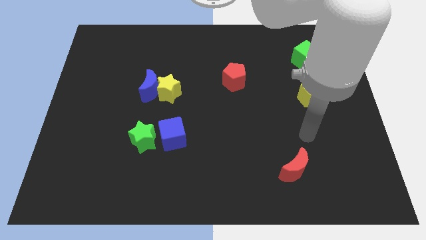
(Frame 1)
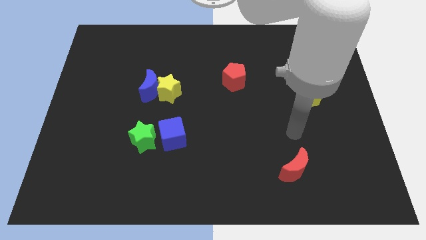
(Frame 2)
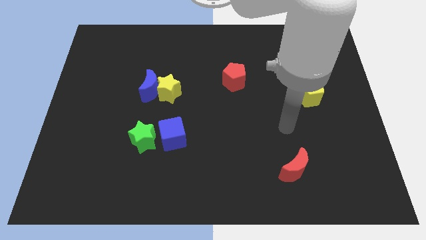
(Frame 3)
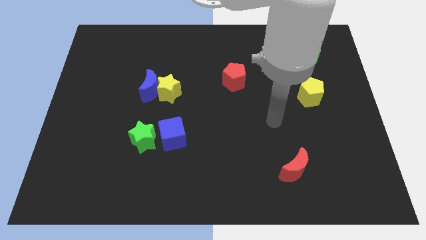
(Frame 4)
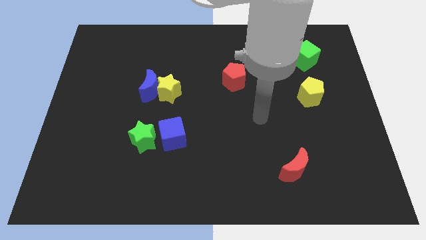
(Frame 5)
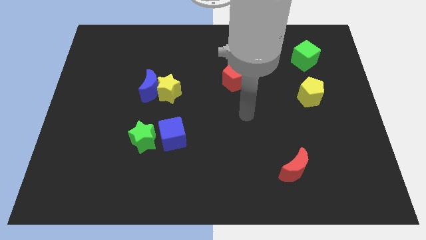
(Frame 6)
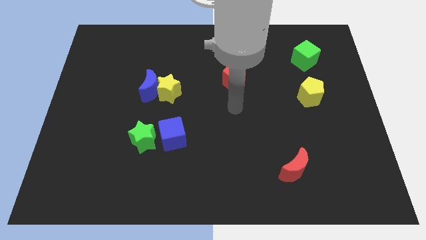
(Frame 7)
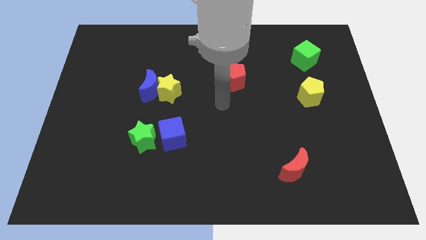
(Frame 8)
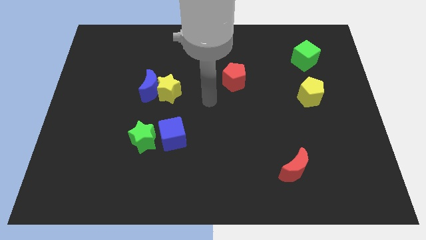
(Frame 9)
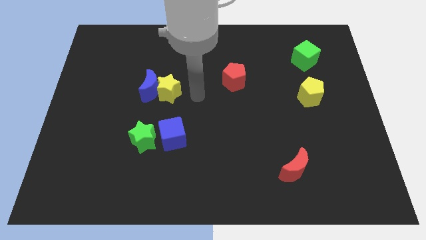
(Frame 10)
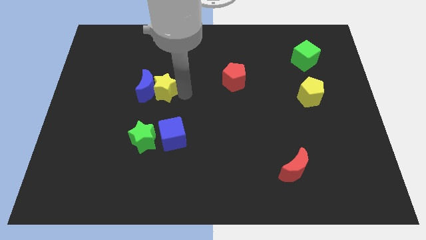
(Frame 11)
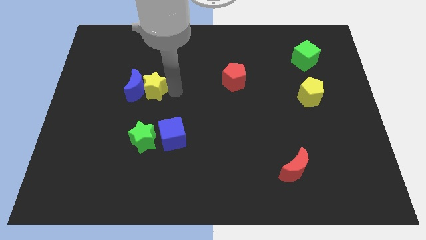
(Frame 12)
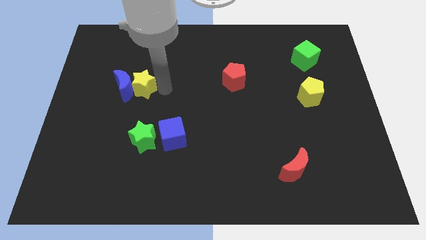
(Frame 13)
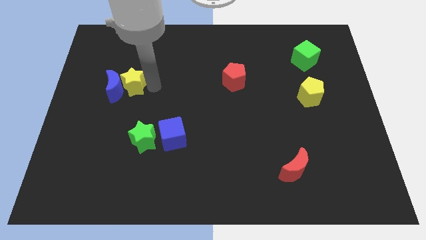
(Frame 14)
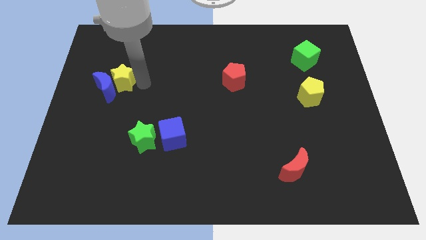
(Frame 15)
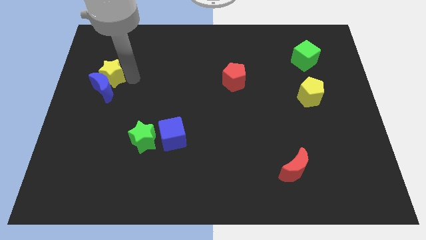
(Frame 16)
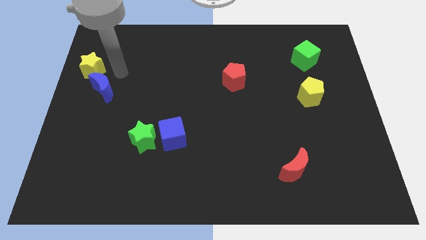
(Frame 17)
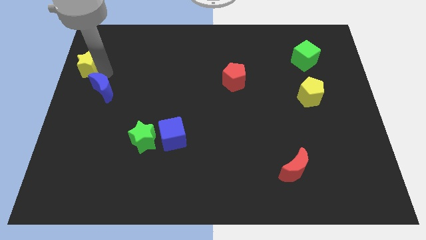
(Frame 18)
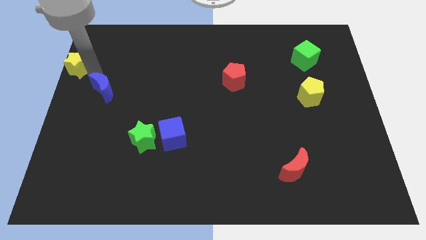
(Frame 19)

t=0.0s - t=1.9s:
separate the blue moon from the yellow star

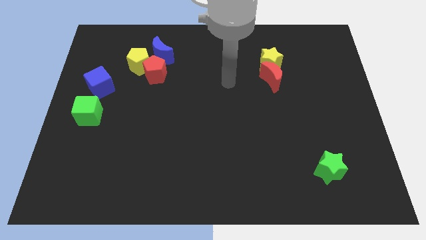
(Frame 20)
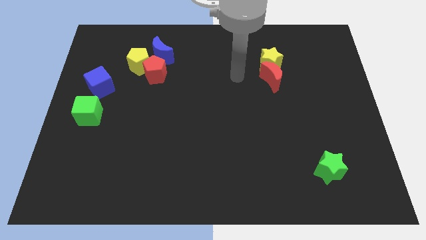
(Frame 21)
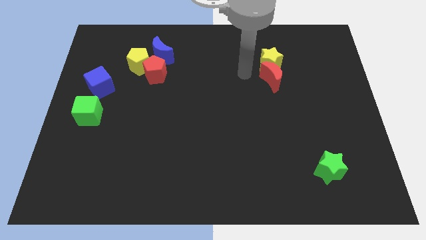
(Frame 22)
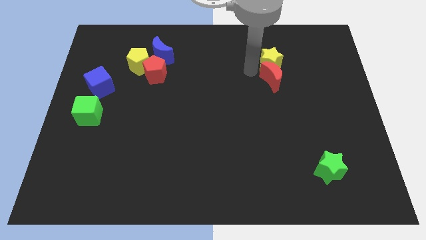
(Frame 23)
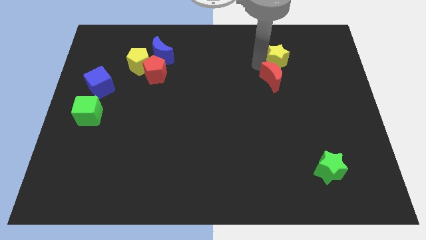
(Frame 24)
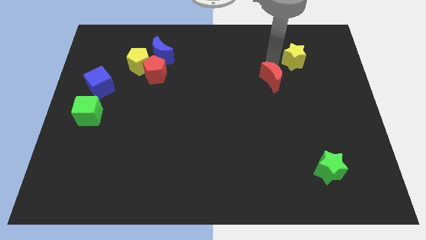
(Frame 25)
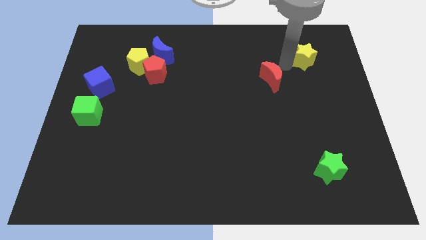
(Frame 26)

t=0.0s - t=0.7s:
separate the red moon from the yellow star

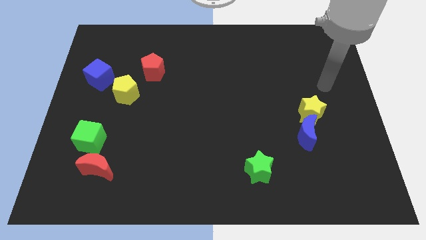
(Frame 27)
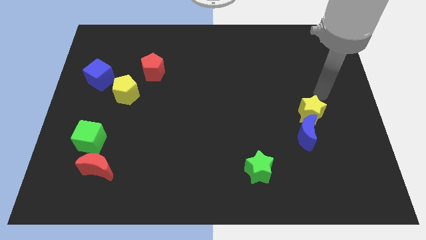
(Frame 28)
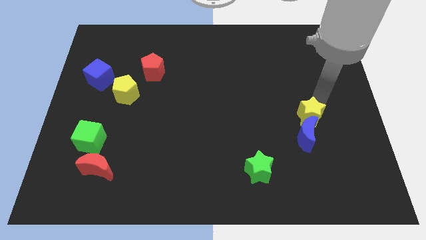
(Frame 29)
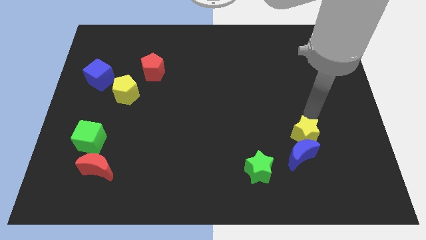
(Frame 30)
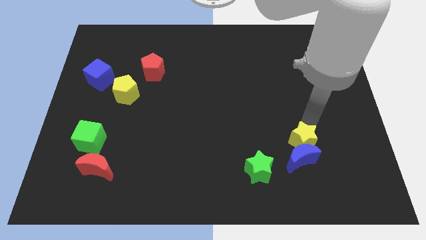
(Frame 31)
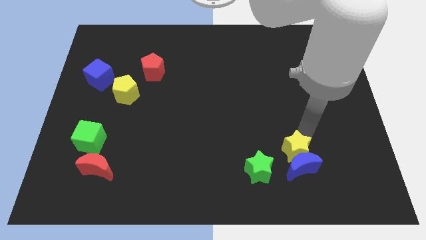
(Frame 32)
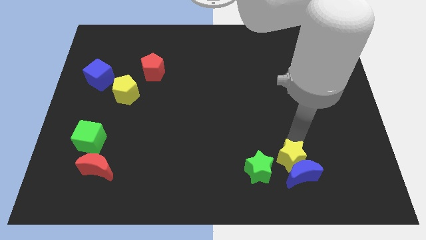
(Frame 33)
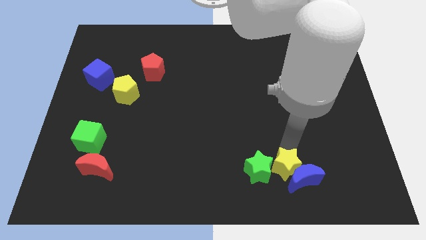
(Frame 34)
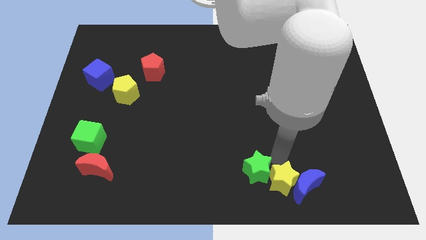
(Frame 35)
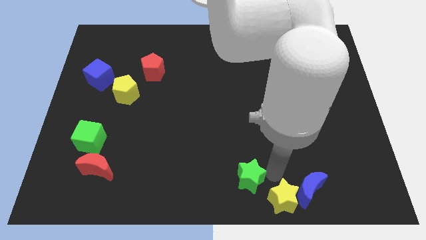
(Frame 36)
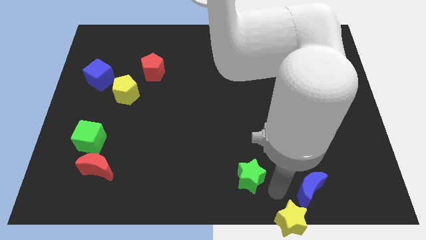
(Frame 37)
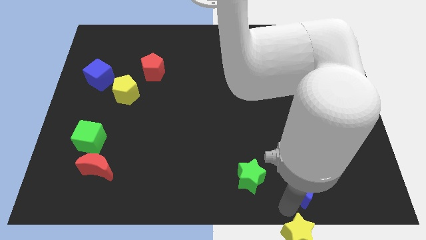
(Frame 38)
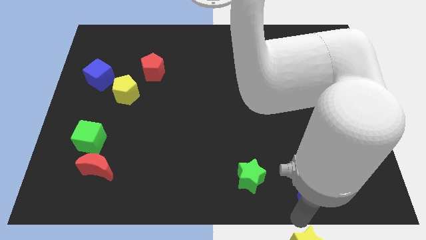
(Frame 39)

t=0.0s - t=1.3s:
move the blue moon away from the yellow star

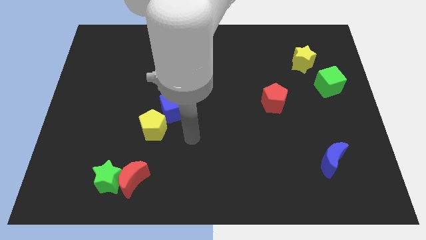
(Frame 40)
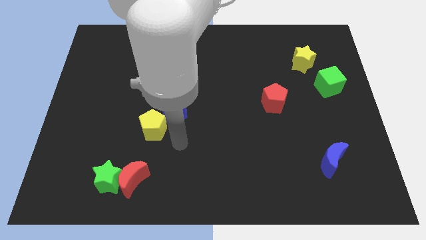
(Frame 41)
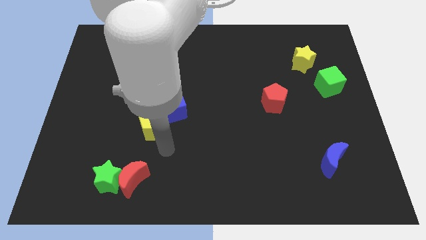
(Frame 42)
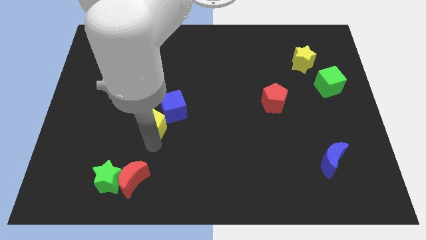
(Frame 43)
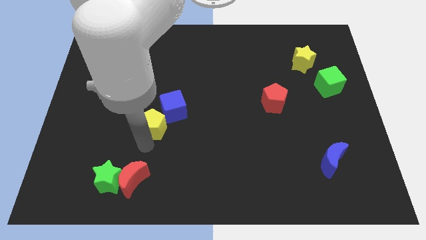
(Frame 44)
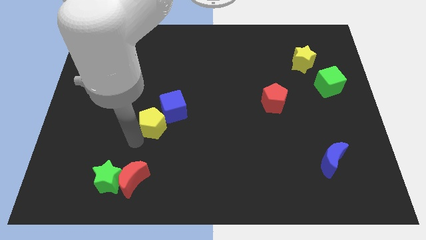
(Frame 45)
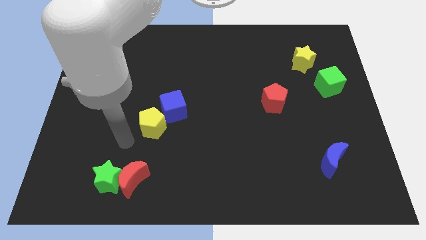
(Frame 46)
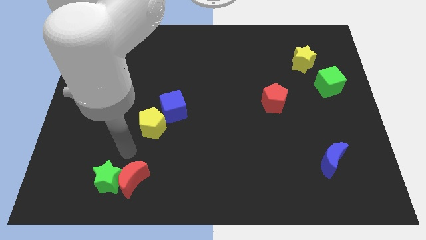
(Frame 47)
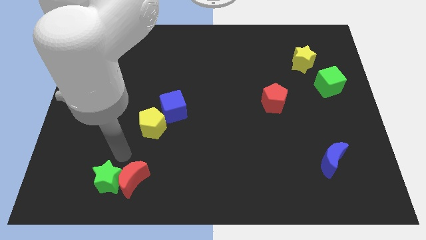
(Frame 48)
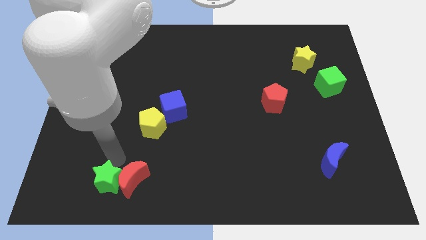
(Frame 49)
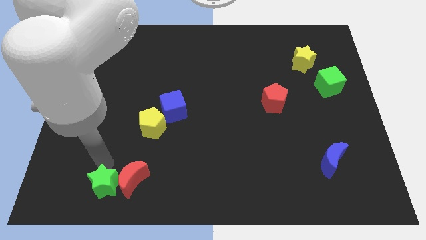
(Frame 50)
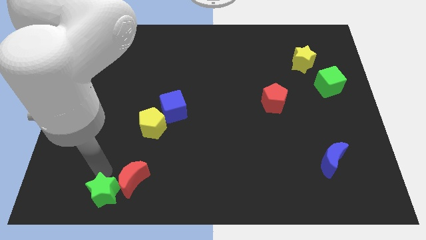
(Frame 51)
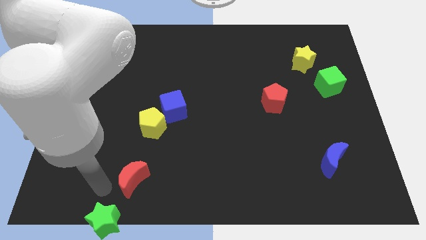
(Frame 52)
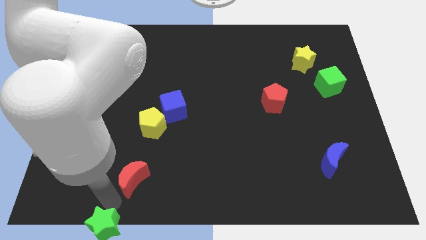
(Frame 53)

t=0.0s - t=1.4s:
separate the red moon from the green star

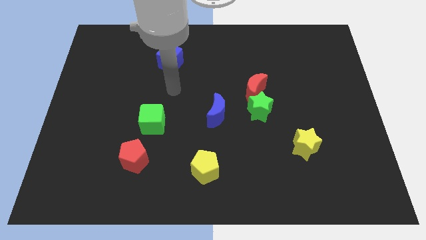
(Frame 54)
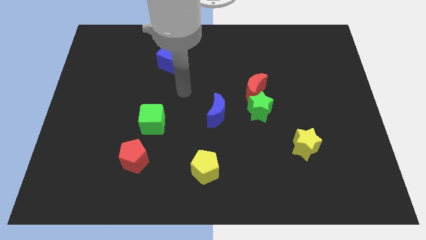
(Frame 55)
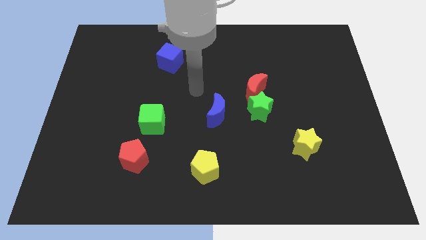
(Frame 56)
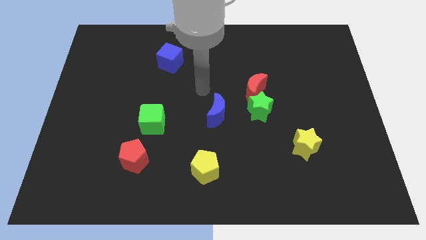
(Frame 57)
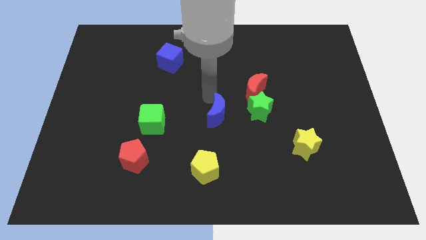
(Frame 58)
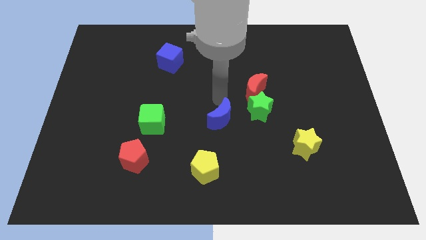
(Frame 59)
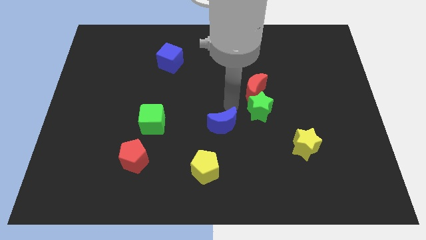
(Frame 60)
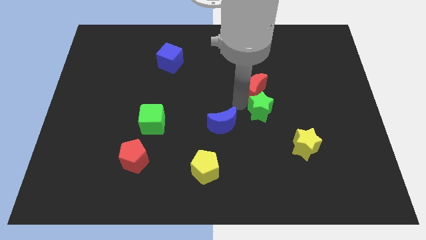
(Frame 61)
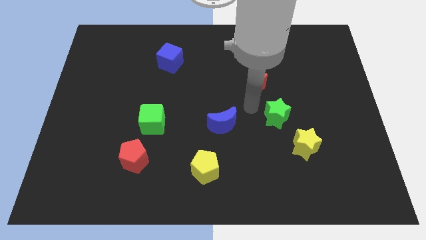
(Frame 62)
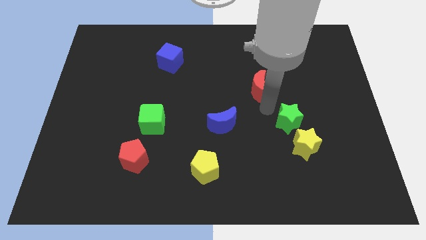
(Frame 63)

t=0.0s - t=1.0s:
pull the red moon apart from the green star

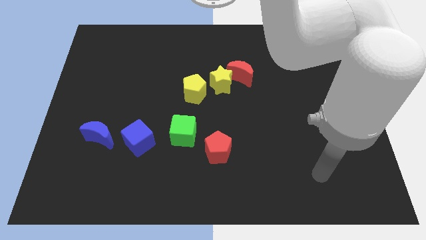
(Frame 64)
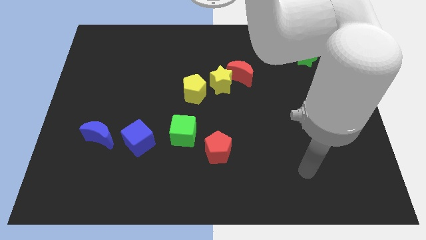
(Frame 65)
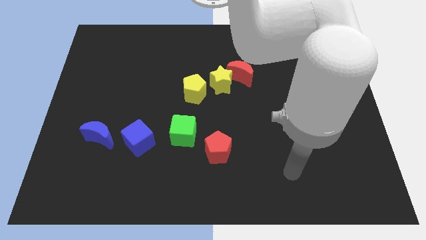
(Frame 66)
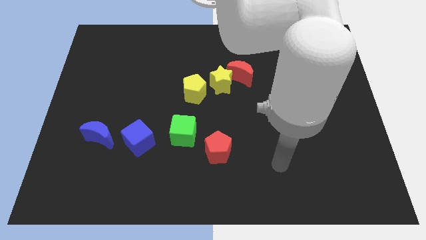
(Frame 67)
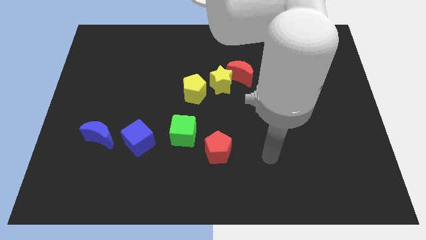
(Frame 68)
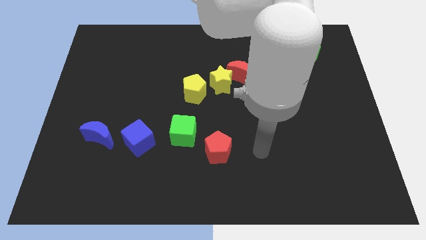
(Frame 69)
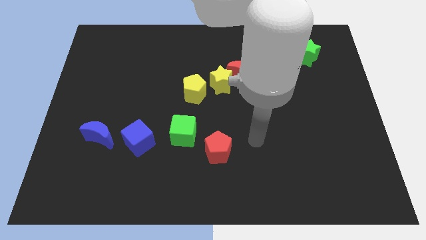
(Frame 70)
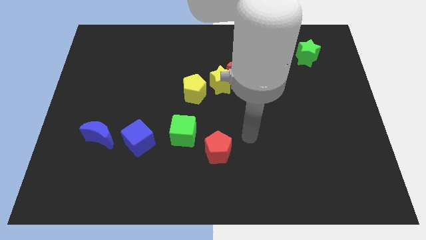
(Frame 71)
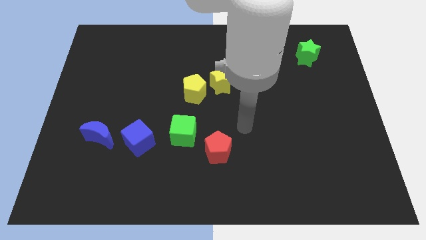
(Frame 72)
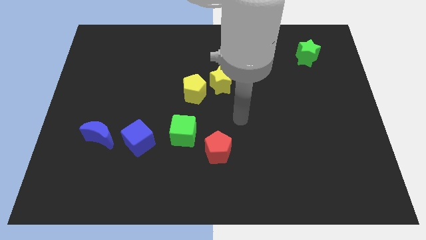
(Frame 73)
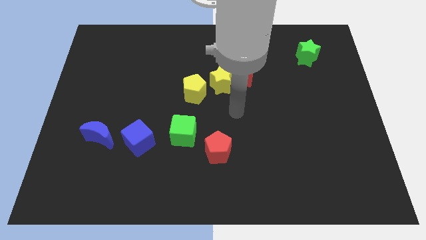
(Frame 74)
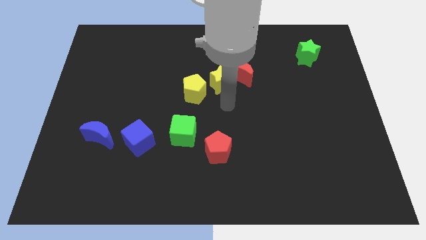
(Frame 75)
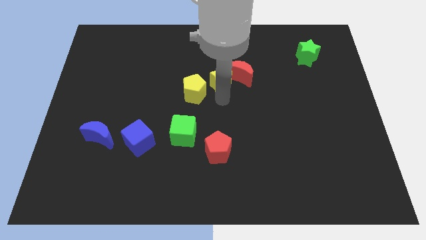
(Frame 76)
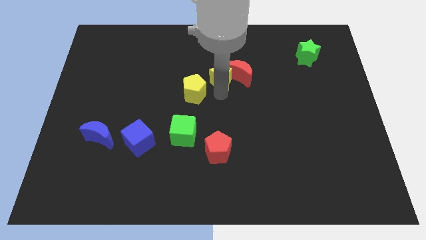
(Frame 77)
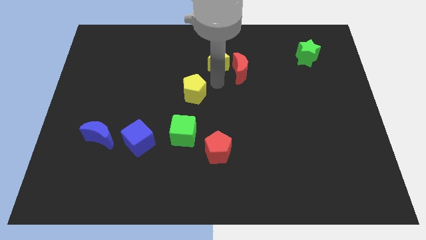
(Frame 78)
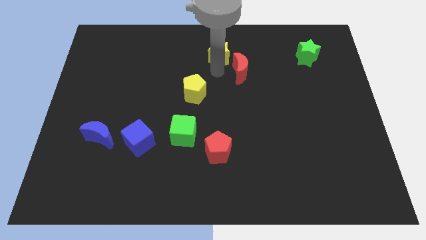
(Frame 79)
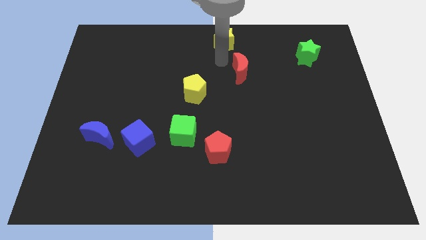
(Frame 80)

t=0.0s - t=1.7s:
pull the red moon apart from the yellow star

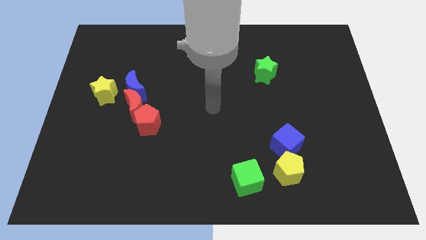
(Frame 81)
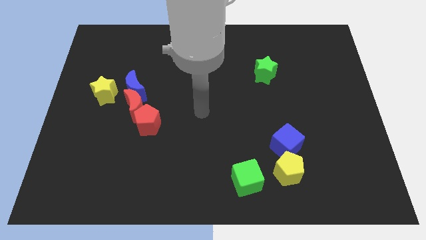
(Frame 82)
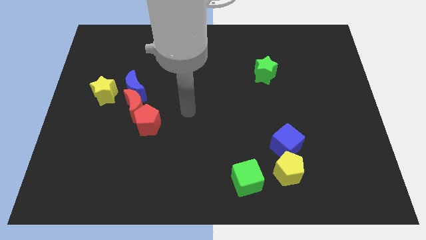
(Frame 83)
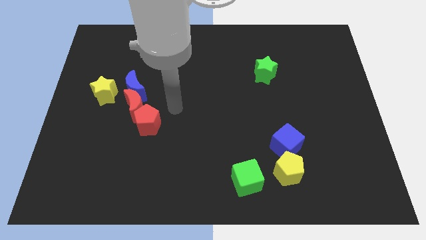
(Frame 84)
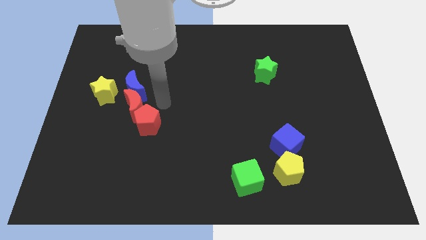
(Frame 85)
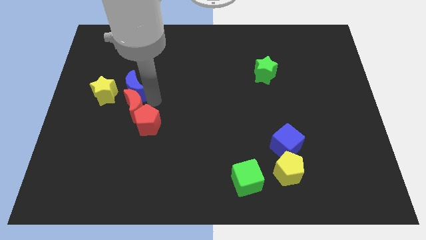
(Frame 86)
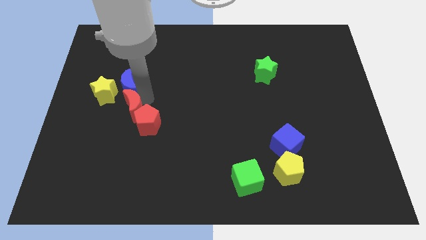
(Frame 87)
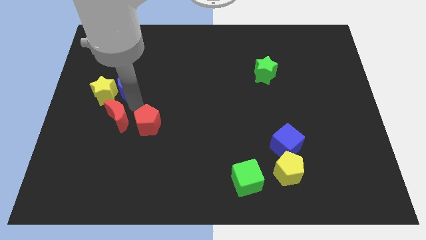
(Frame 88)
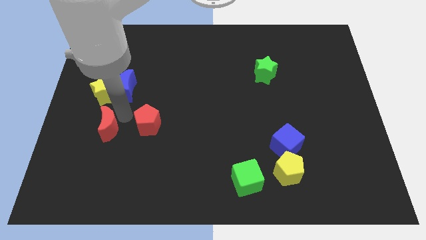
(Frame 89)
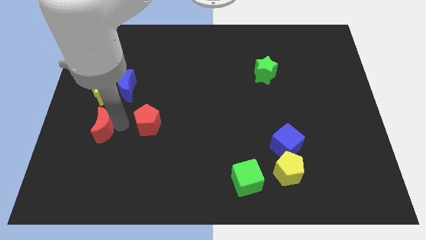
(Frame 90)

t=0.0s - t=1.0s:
separate the red pentagon from the red moon

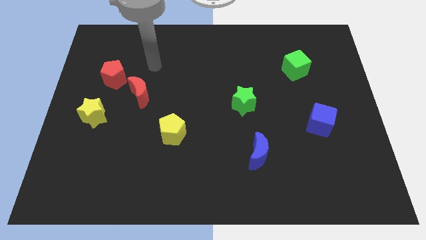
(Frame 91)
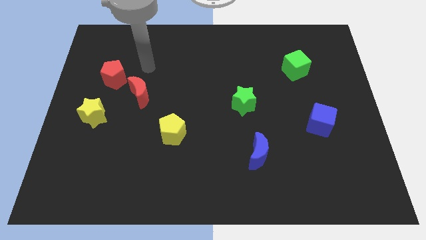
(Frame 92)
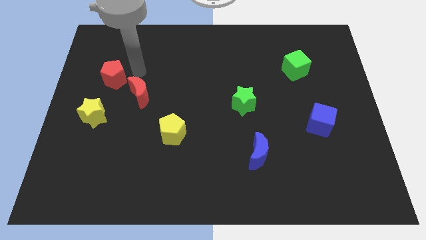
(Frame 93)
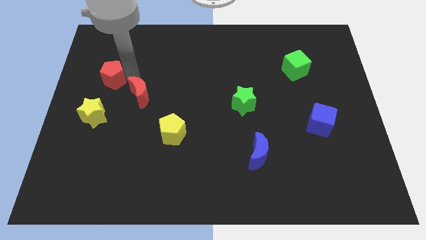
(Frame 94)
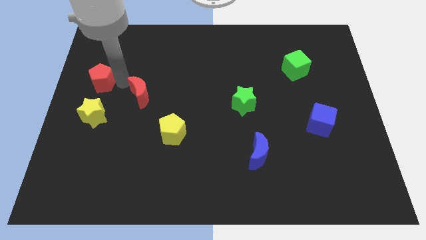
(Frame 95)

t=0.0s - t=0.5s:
move the red moon away from the red pentagon
